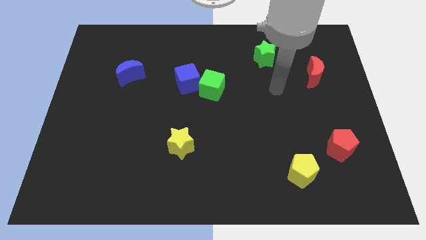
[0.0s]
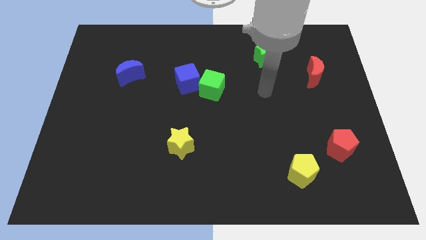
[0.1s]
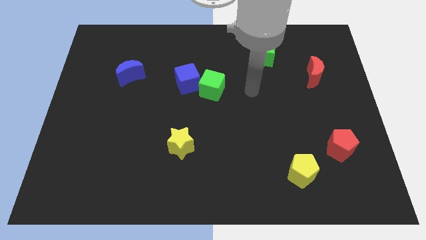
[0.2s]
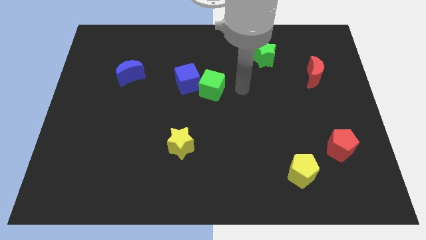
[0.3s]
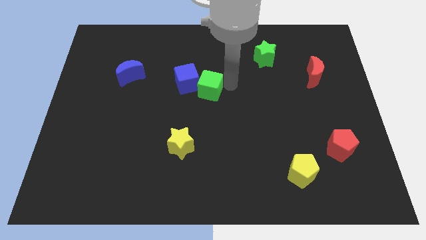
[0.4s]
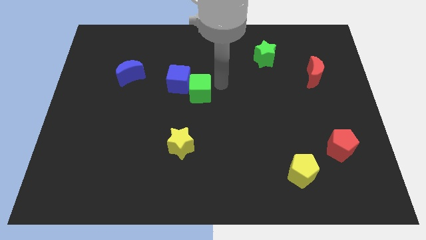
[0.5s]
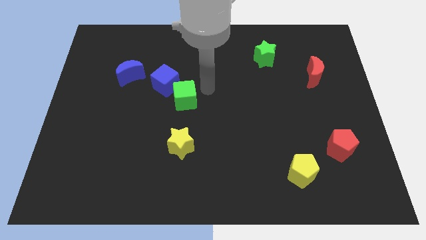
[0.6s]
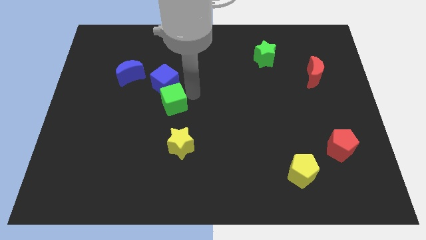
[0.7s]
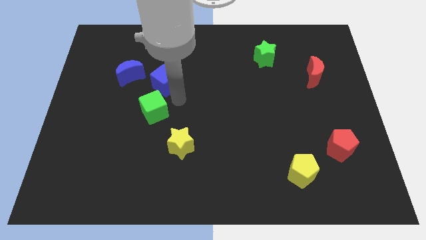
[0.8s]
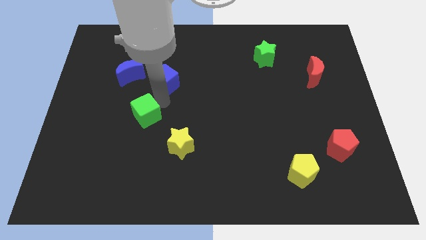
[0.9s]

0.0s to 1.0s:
pull the blue cube apart from the green cube

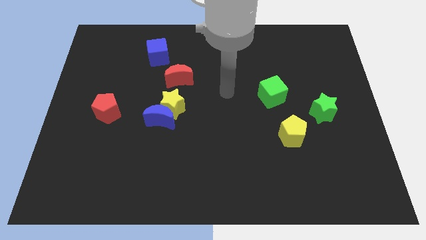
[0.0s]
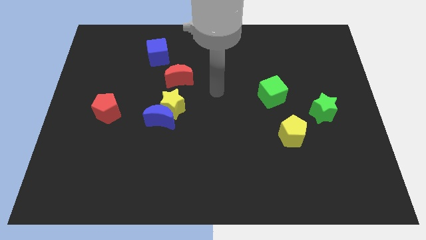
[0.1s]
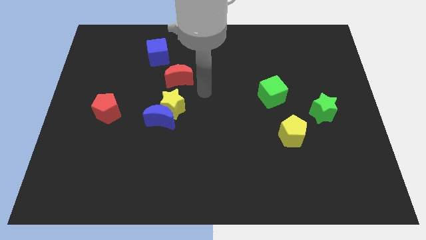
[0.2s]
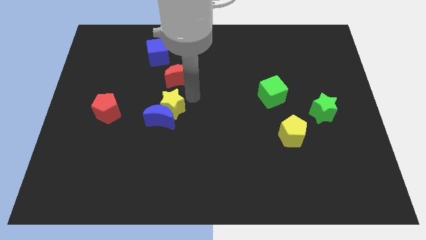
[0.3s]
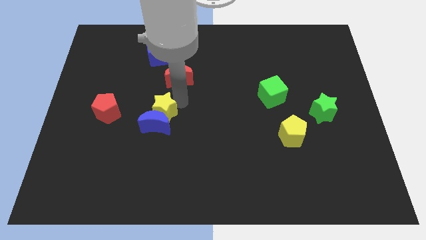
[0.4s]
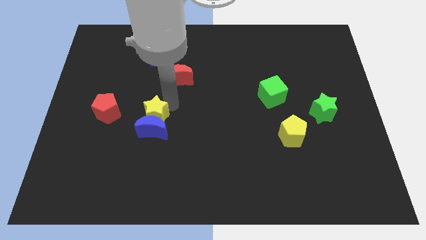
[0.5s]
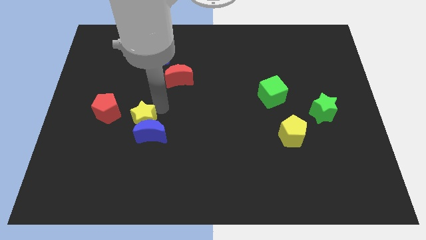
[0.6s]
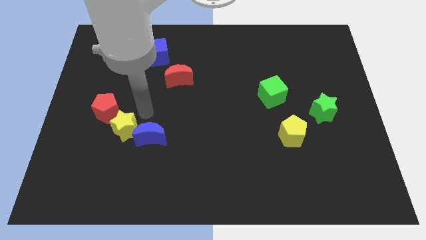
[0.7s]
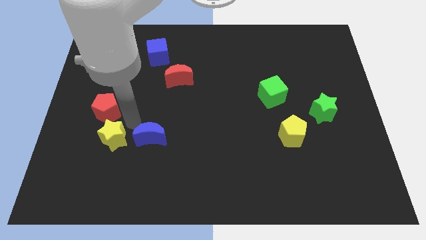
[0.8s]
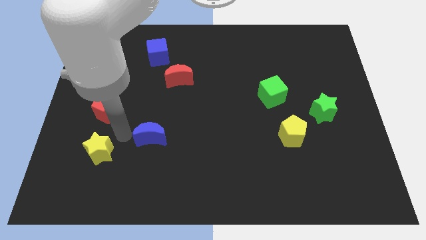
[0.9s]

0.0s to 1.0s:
separate the blue moon from the yellow star

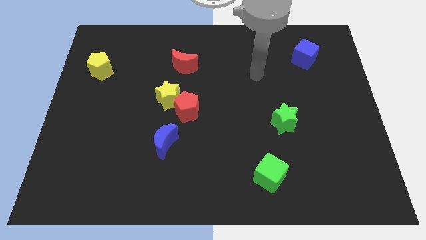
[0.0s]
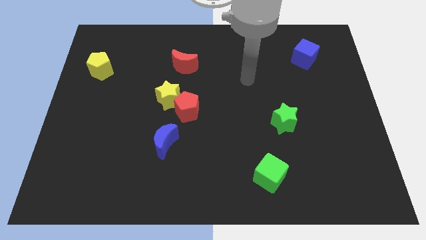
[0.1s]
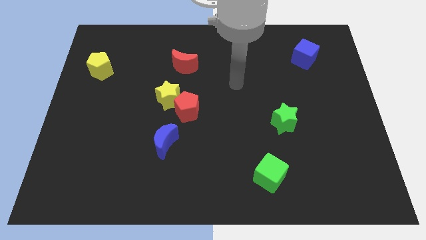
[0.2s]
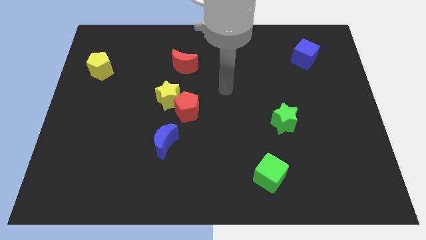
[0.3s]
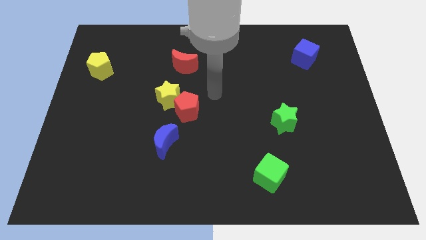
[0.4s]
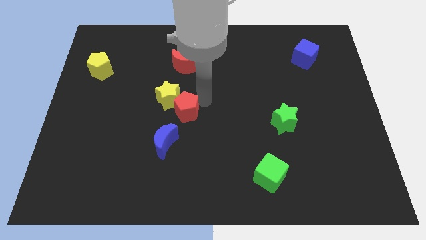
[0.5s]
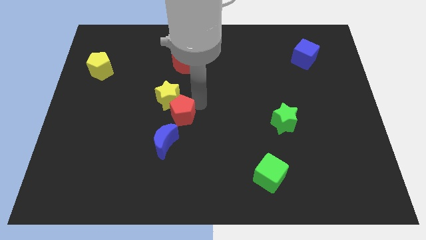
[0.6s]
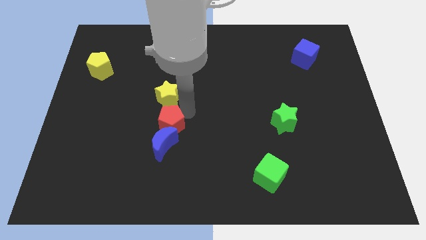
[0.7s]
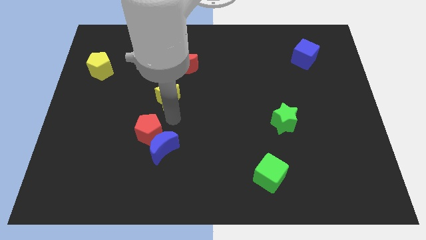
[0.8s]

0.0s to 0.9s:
move the yellow star away from the red pentagon

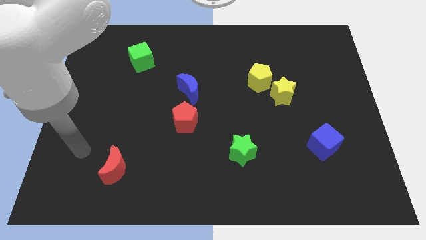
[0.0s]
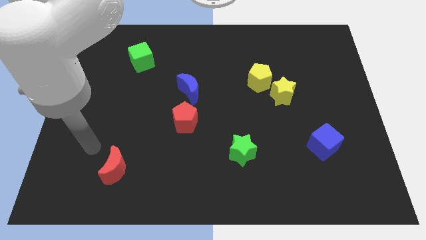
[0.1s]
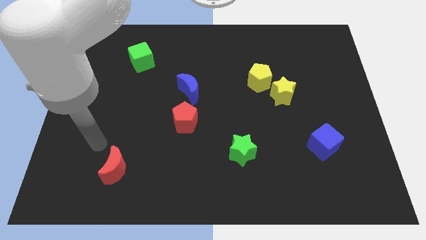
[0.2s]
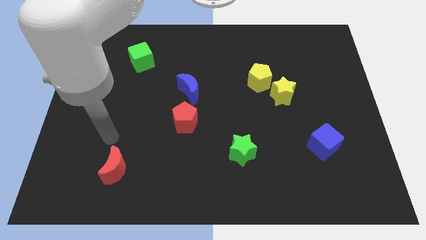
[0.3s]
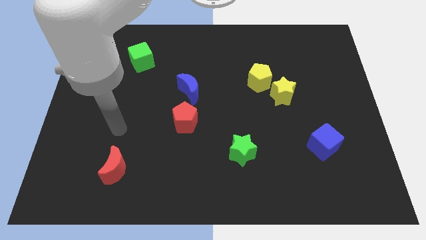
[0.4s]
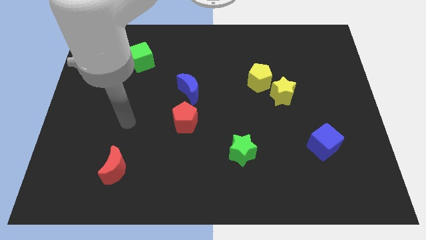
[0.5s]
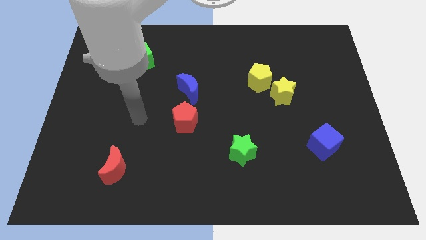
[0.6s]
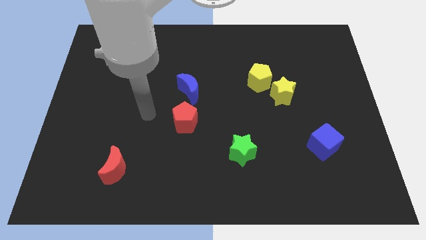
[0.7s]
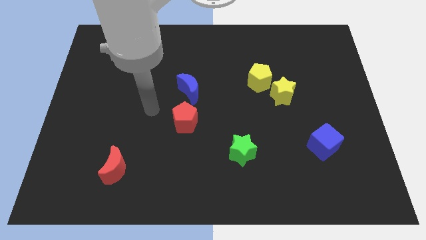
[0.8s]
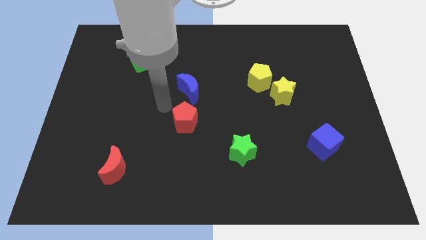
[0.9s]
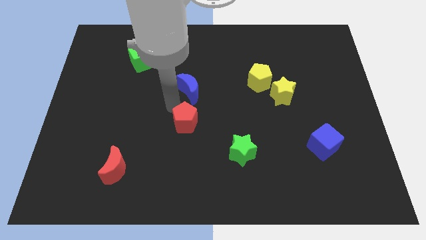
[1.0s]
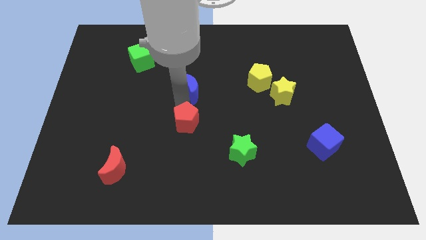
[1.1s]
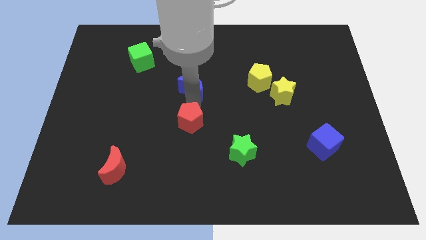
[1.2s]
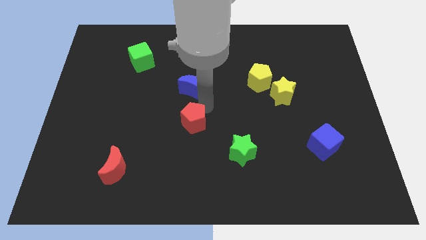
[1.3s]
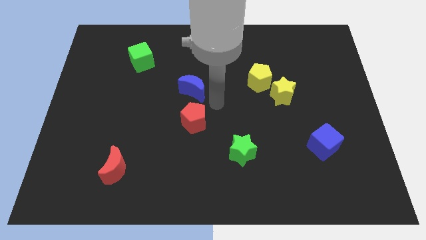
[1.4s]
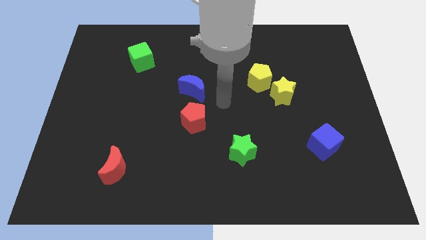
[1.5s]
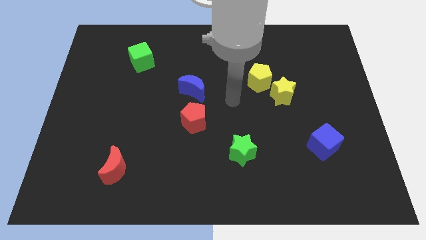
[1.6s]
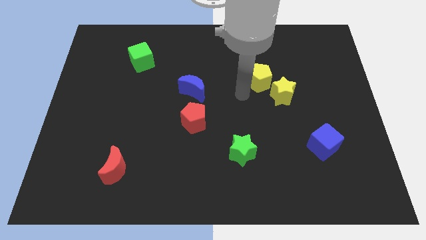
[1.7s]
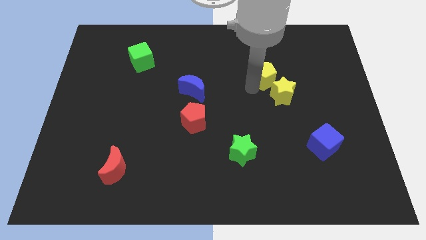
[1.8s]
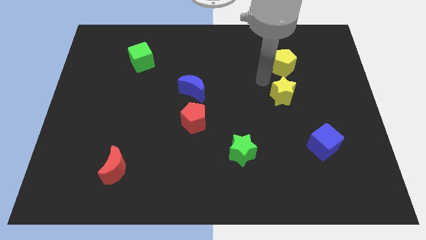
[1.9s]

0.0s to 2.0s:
move the yellow star away from the yellow pentagon

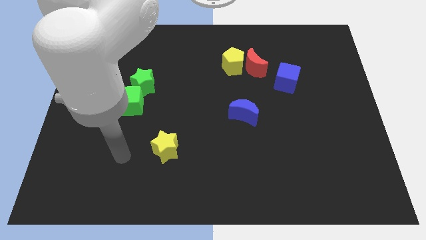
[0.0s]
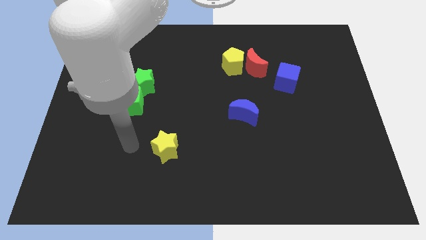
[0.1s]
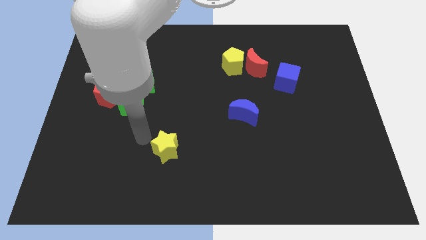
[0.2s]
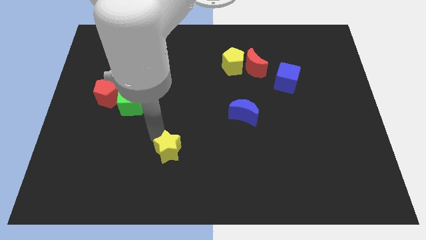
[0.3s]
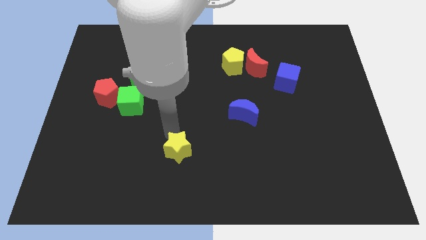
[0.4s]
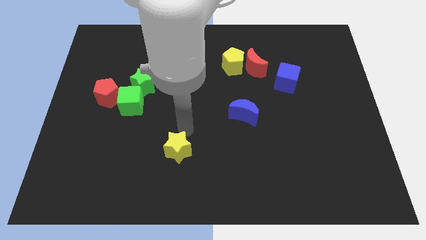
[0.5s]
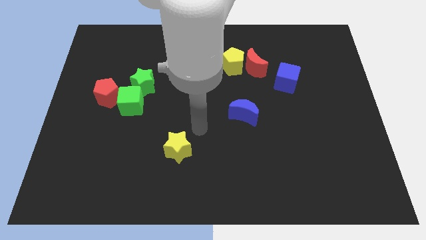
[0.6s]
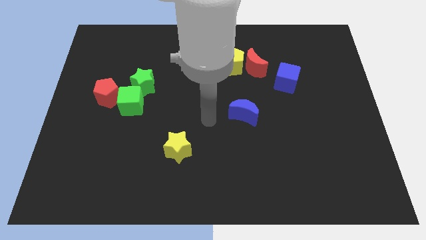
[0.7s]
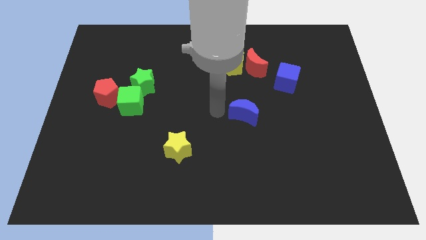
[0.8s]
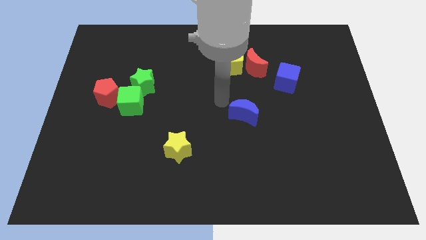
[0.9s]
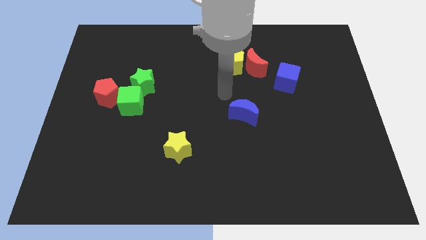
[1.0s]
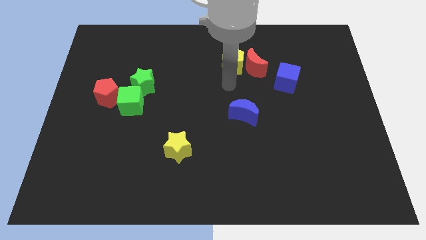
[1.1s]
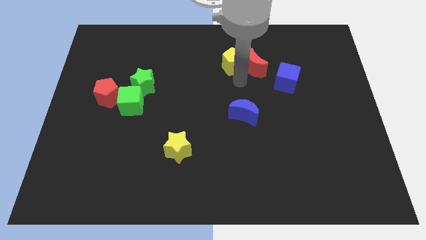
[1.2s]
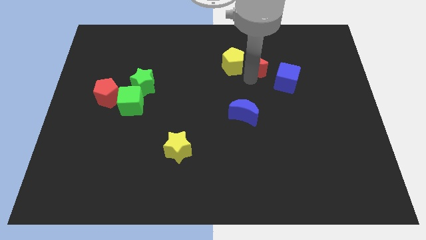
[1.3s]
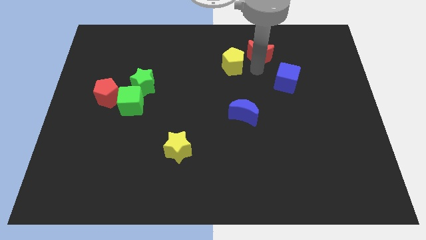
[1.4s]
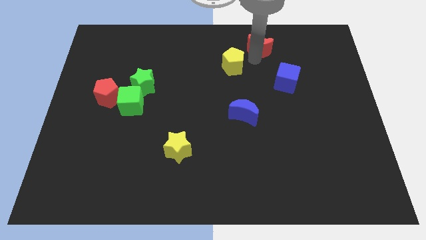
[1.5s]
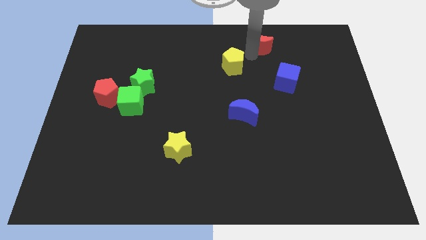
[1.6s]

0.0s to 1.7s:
pull the yellow pentagon apart from the red moon

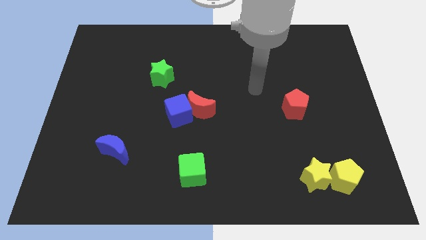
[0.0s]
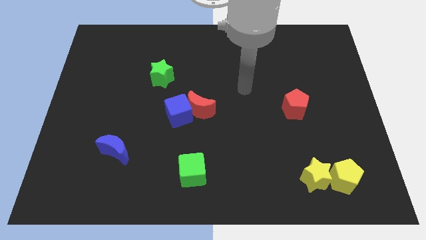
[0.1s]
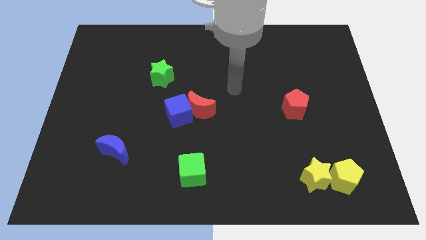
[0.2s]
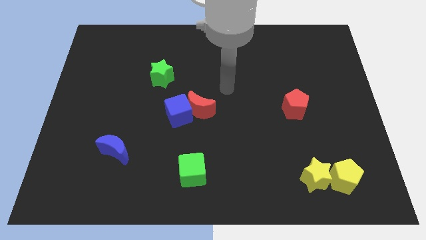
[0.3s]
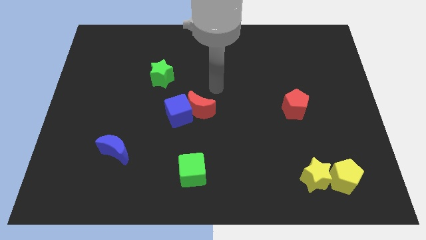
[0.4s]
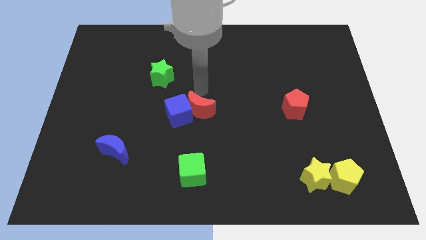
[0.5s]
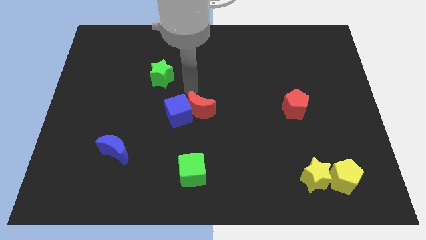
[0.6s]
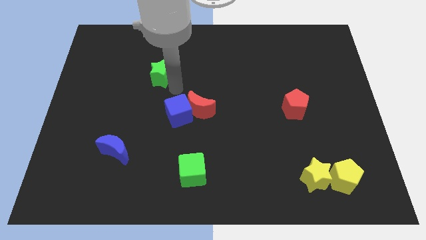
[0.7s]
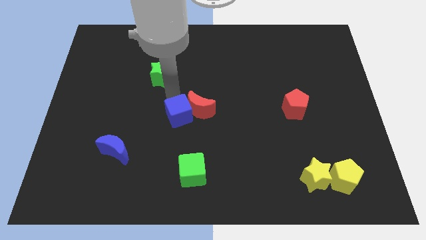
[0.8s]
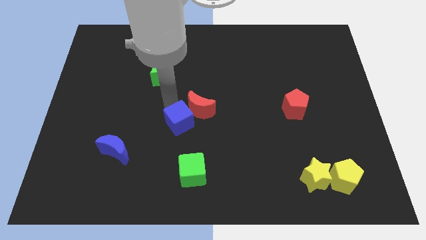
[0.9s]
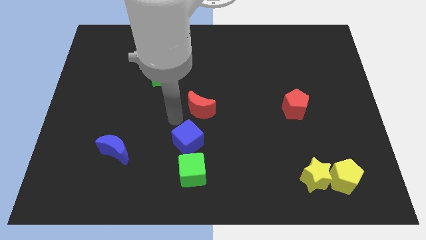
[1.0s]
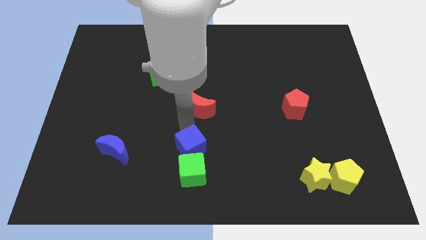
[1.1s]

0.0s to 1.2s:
move the red moon away from the blue cube

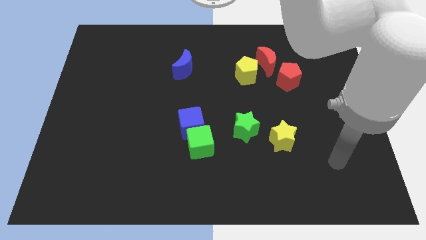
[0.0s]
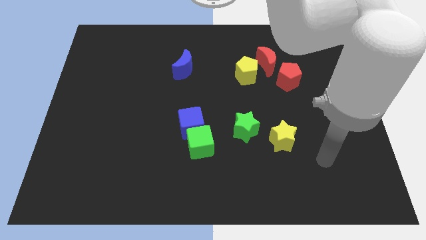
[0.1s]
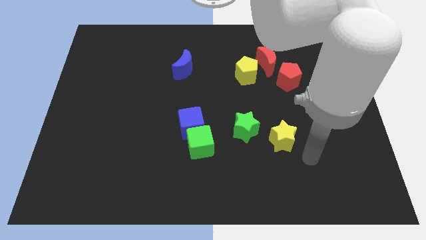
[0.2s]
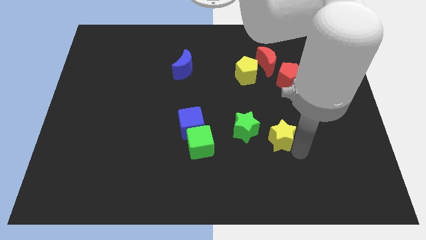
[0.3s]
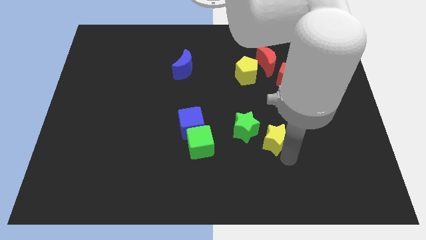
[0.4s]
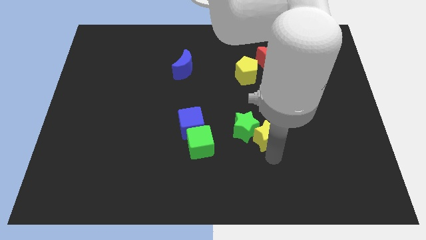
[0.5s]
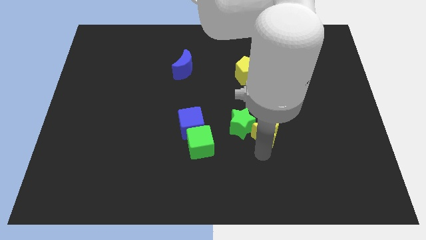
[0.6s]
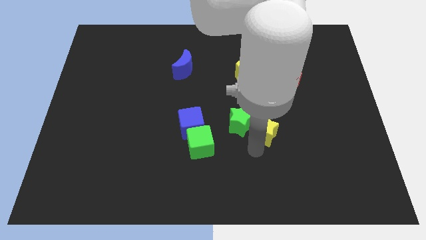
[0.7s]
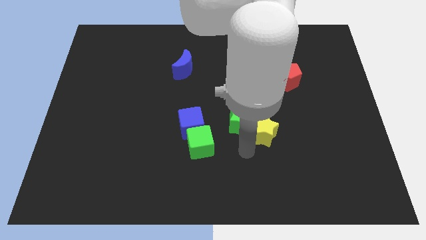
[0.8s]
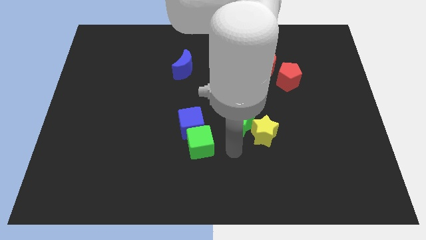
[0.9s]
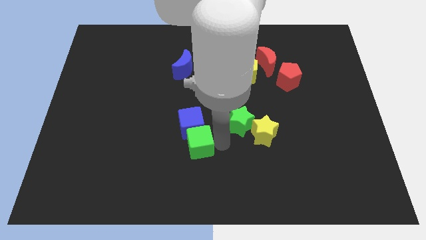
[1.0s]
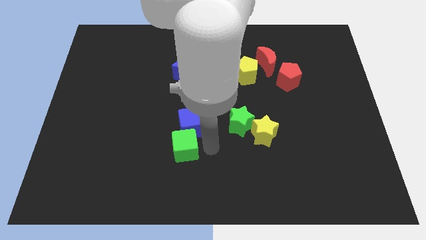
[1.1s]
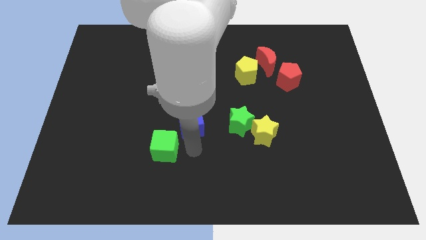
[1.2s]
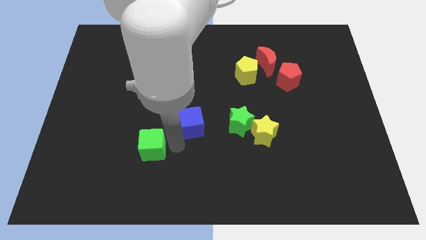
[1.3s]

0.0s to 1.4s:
move the blue cube away from the green cube
